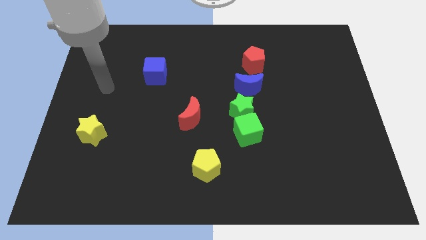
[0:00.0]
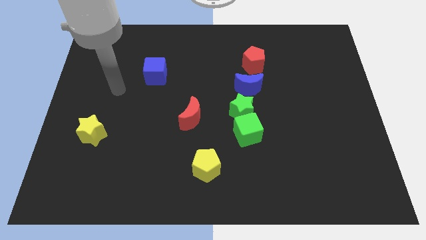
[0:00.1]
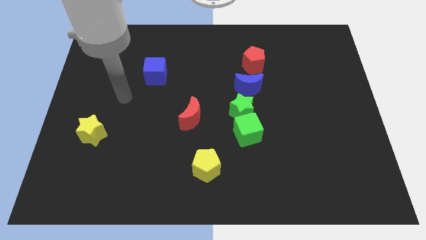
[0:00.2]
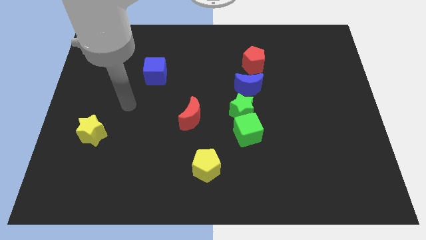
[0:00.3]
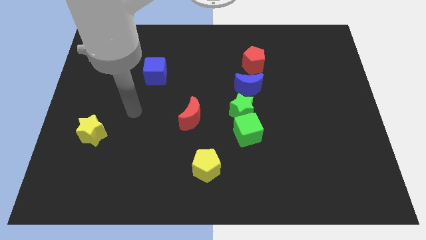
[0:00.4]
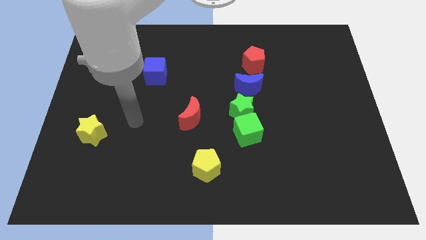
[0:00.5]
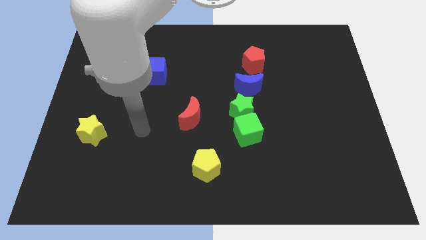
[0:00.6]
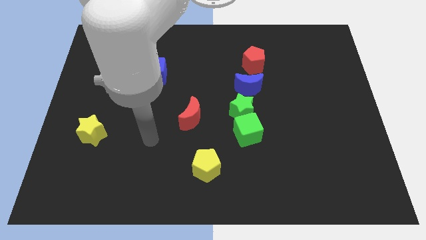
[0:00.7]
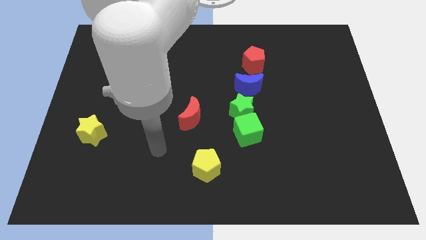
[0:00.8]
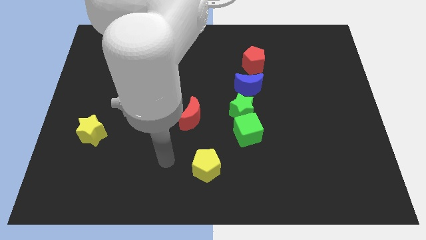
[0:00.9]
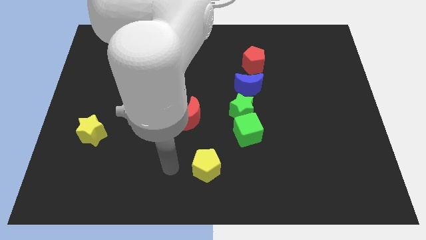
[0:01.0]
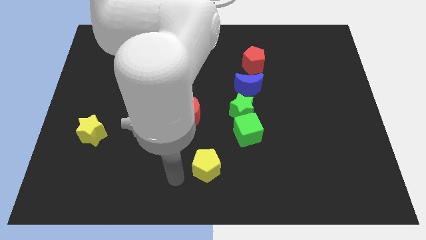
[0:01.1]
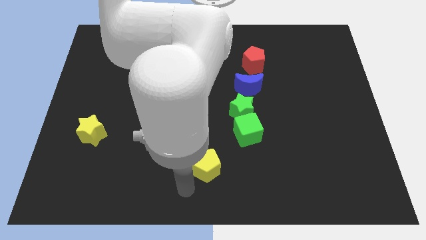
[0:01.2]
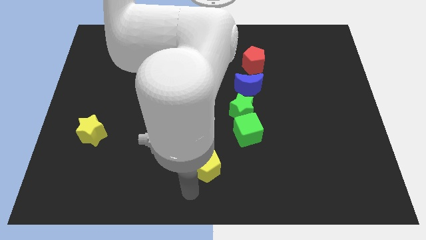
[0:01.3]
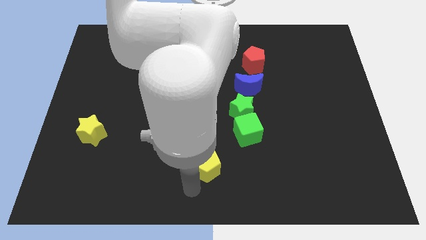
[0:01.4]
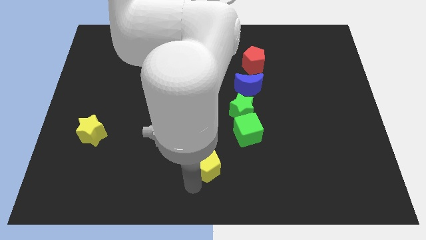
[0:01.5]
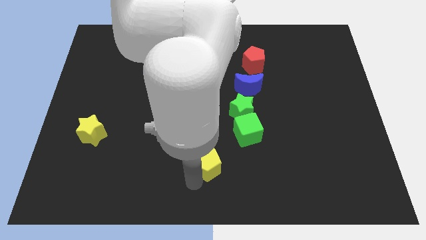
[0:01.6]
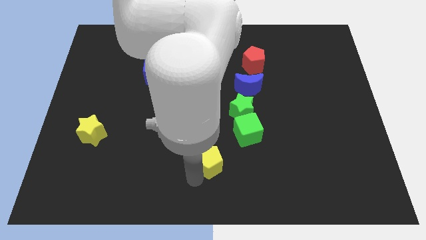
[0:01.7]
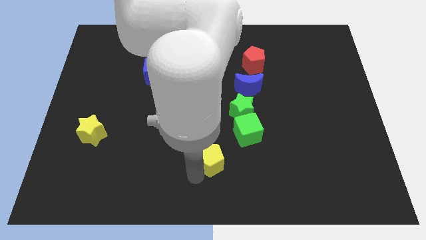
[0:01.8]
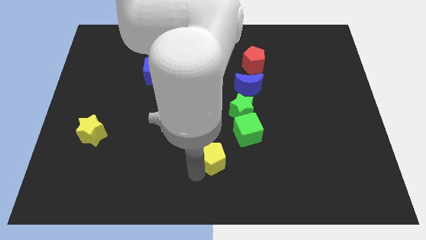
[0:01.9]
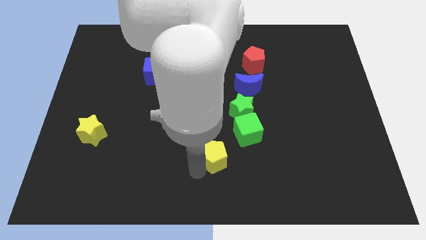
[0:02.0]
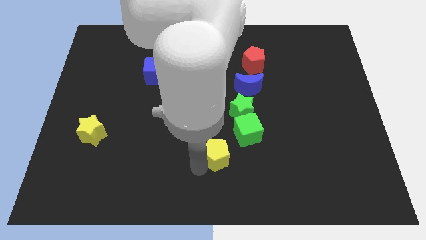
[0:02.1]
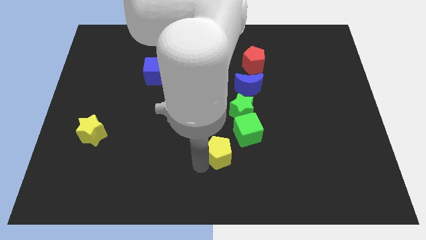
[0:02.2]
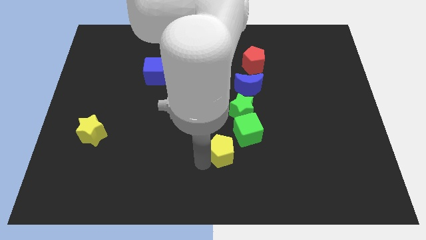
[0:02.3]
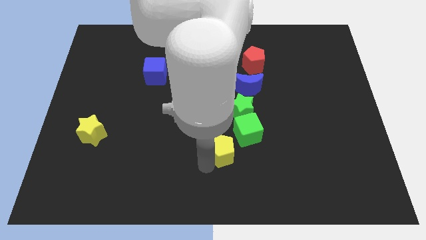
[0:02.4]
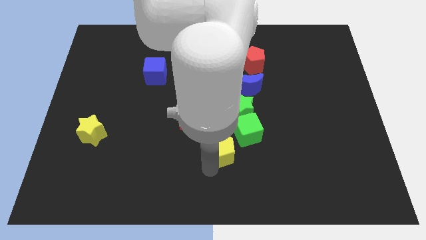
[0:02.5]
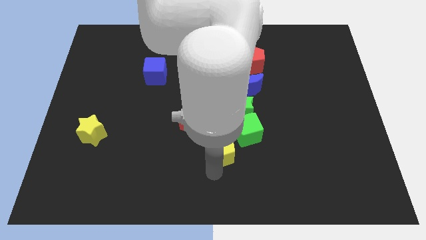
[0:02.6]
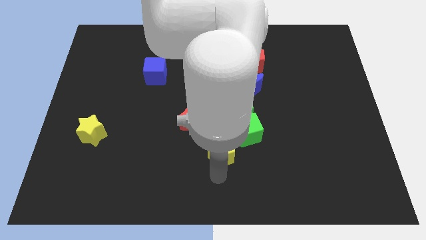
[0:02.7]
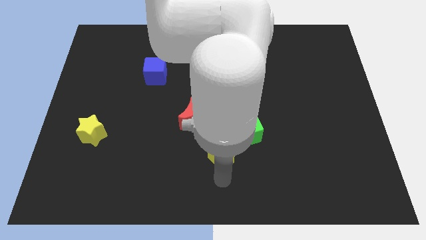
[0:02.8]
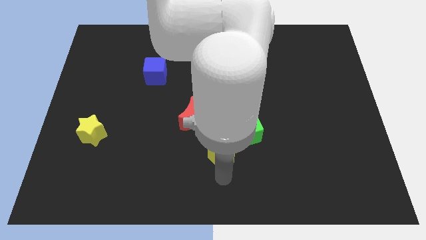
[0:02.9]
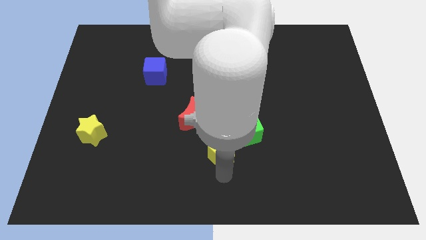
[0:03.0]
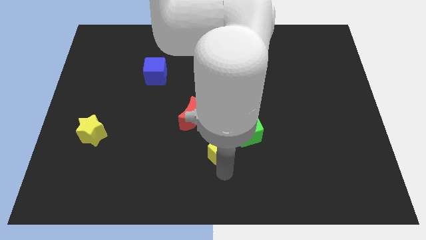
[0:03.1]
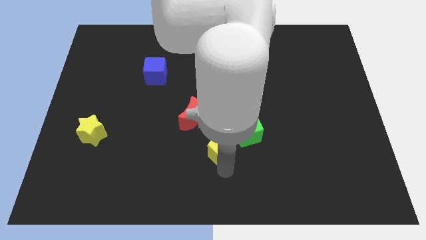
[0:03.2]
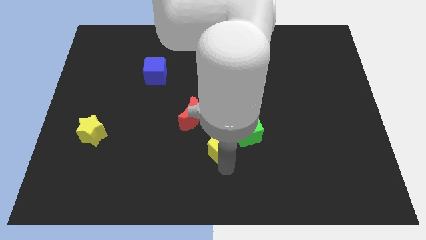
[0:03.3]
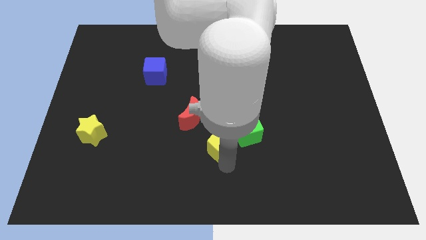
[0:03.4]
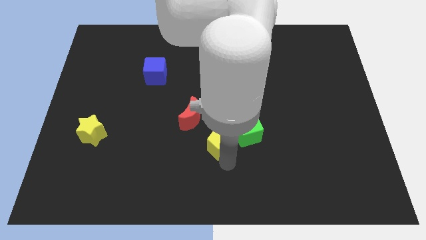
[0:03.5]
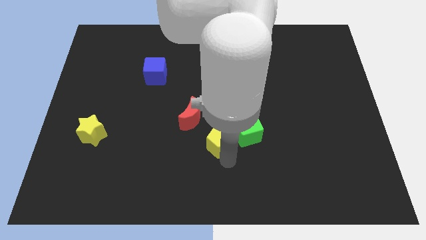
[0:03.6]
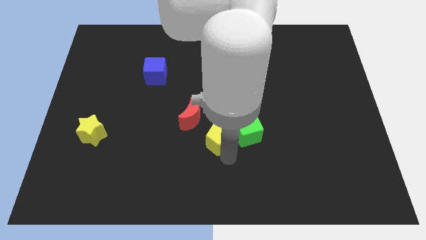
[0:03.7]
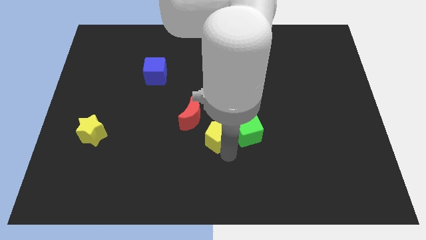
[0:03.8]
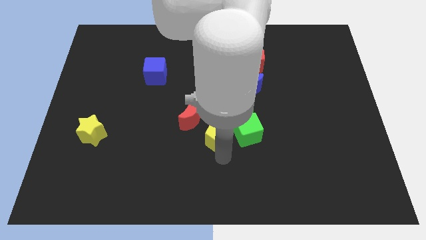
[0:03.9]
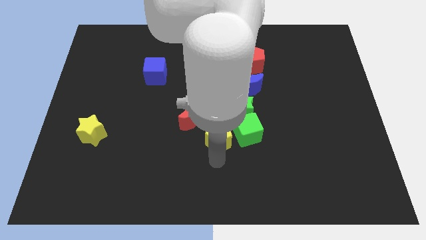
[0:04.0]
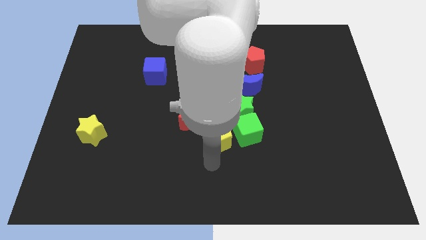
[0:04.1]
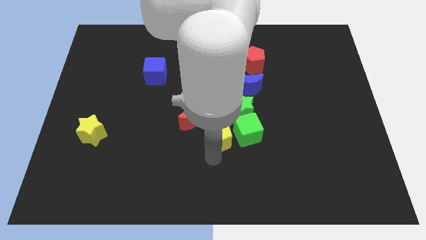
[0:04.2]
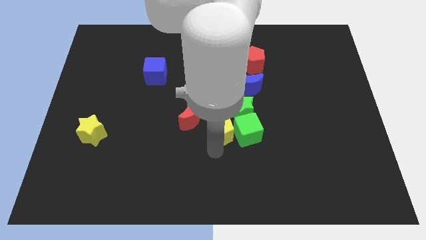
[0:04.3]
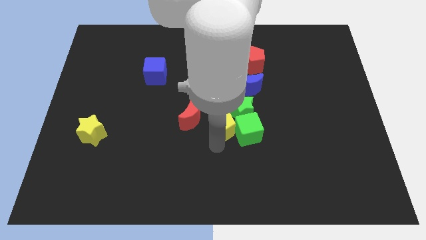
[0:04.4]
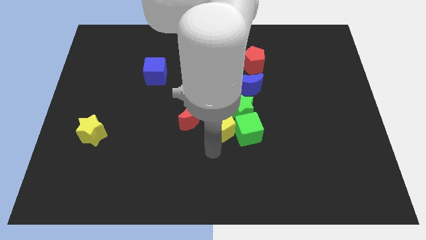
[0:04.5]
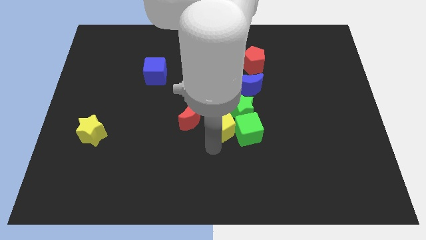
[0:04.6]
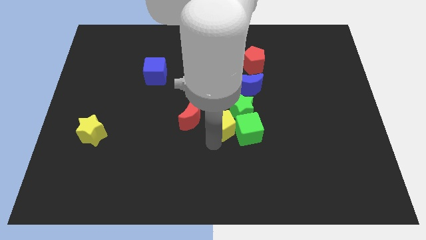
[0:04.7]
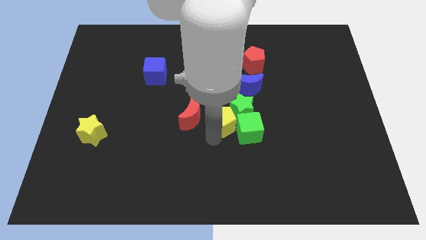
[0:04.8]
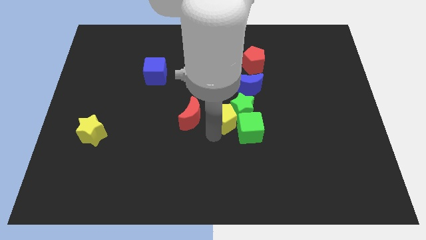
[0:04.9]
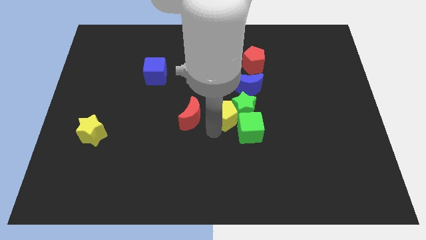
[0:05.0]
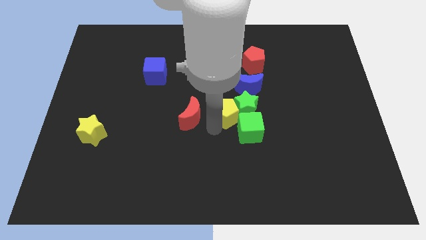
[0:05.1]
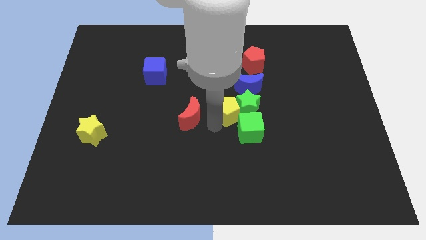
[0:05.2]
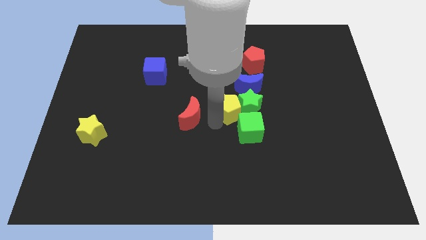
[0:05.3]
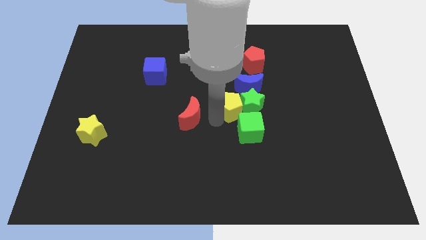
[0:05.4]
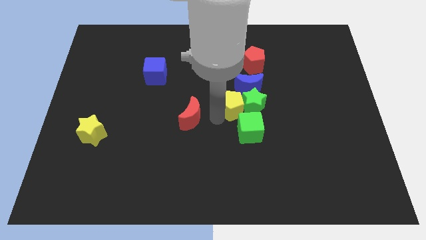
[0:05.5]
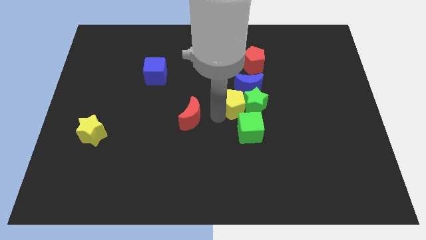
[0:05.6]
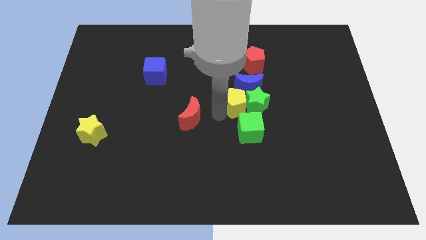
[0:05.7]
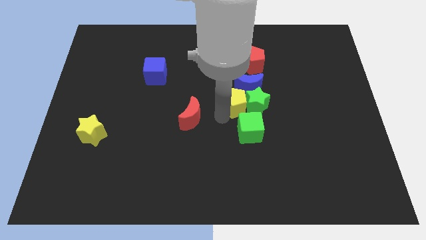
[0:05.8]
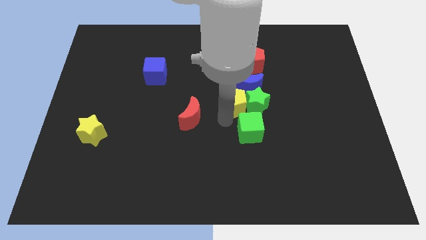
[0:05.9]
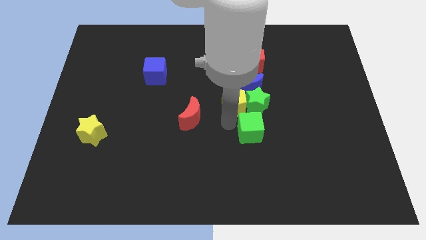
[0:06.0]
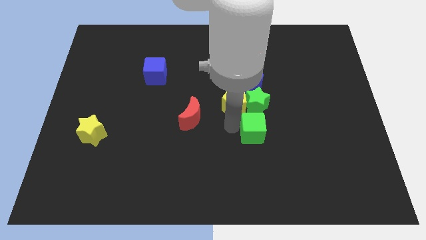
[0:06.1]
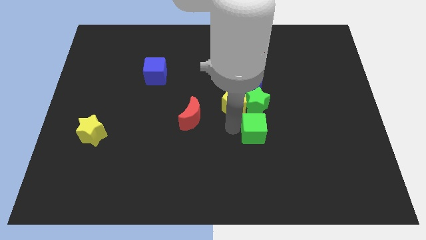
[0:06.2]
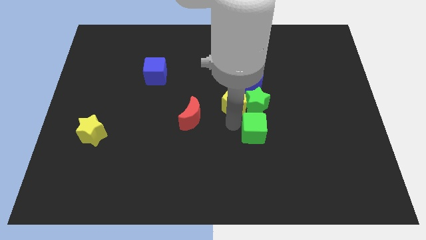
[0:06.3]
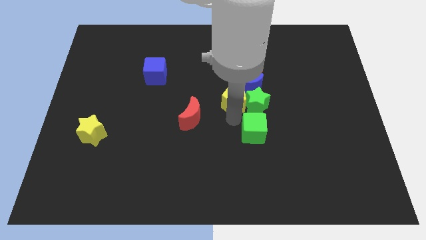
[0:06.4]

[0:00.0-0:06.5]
put the yellow pentagon close to the blue moon

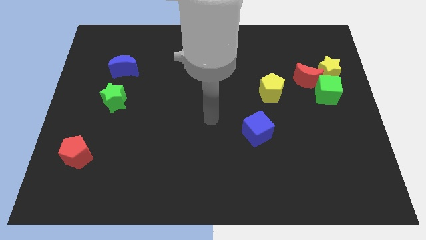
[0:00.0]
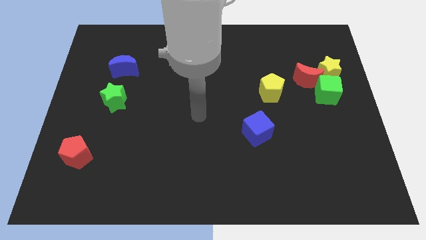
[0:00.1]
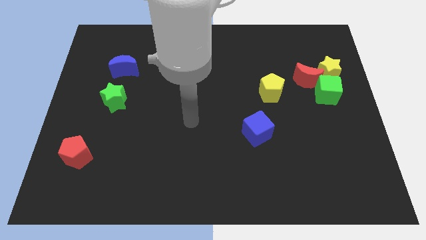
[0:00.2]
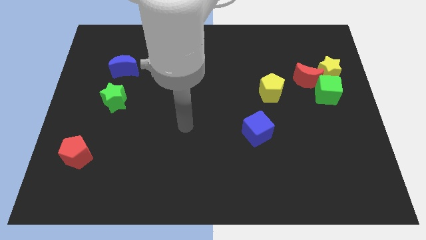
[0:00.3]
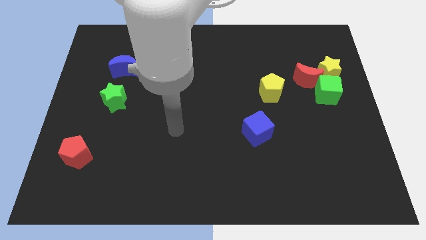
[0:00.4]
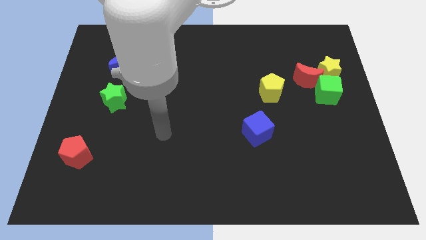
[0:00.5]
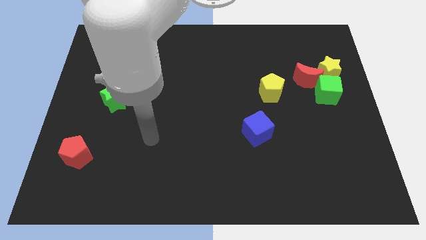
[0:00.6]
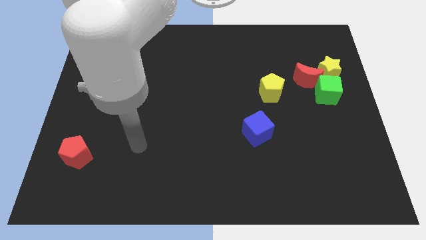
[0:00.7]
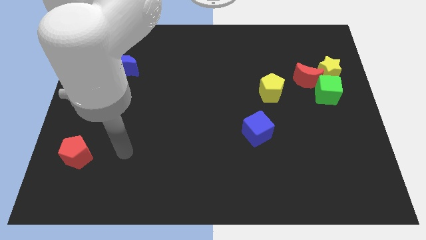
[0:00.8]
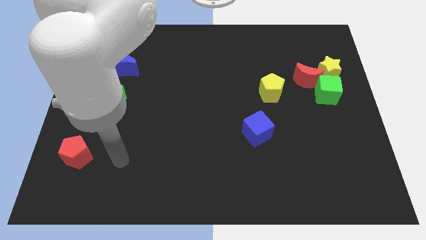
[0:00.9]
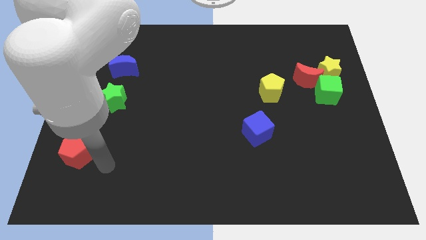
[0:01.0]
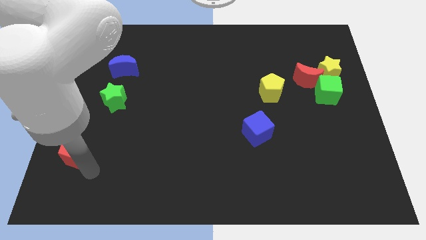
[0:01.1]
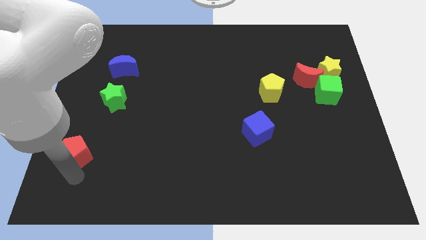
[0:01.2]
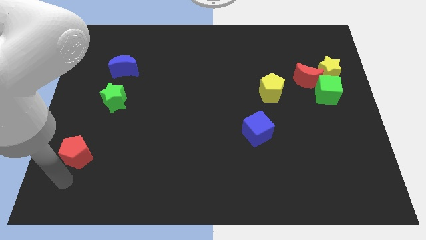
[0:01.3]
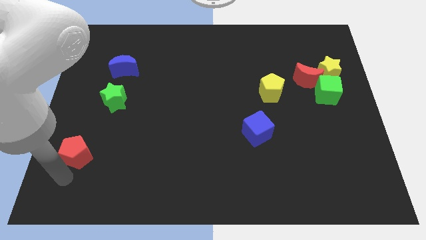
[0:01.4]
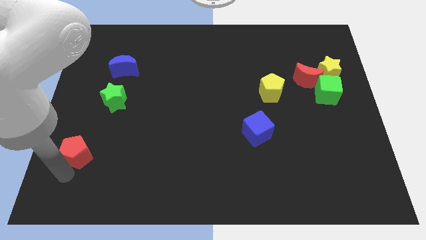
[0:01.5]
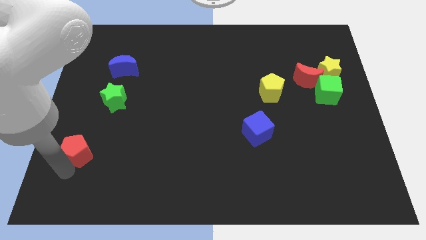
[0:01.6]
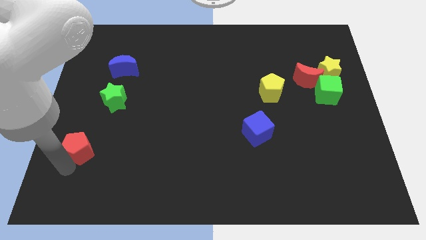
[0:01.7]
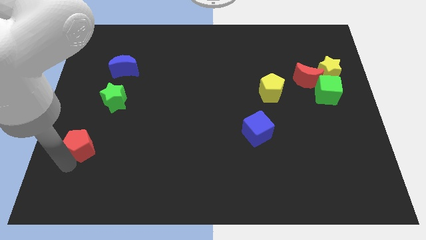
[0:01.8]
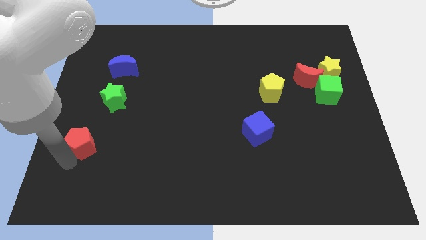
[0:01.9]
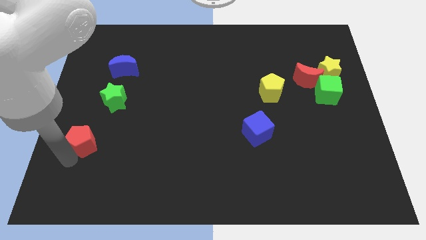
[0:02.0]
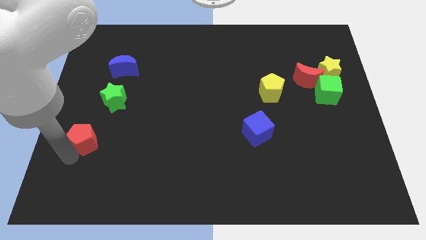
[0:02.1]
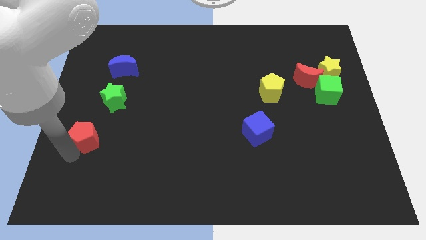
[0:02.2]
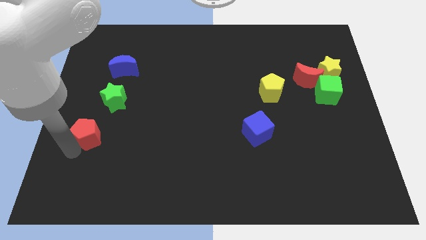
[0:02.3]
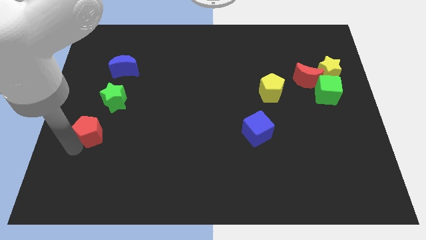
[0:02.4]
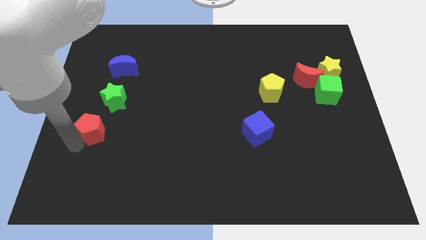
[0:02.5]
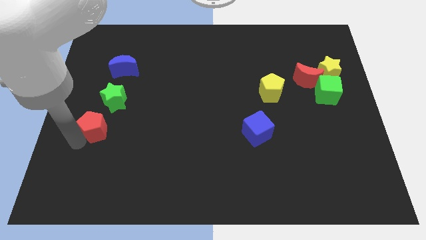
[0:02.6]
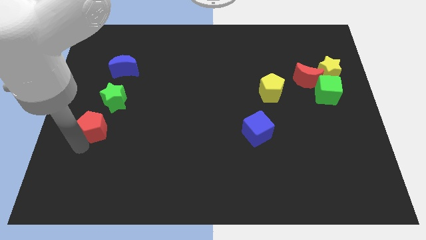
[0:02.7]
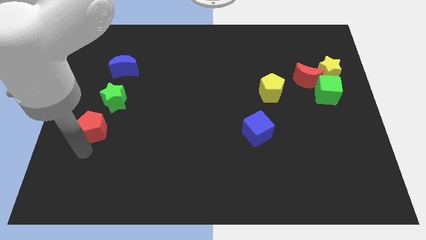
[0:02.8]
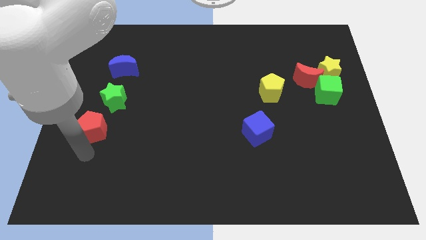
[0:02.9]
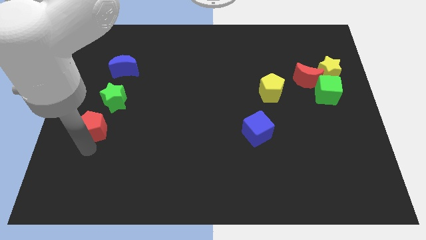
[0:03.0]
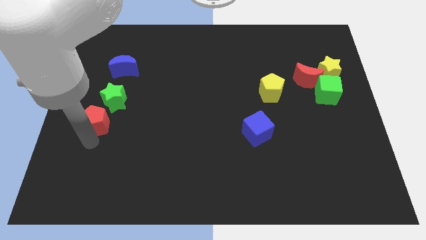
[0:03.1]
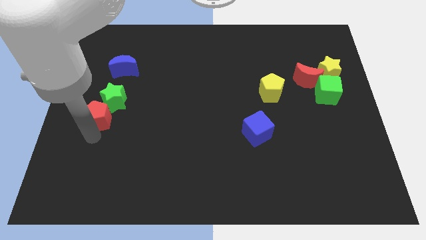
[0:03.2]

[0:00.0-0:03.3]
slide the red pentagon next to the green star
